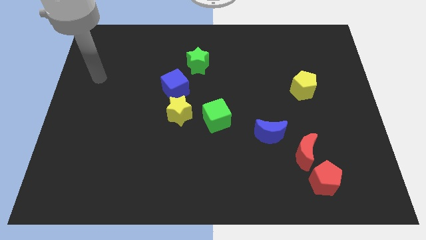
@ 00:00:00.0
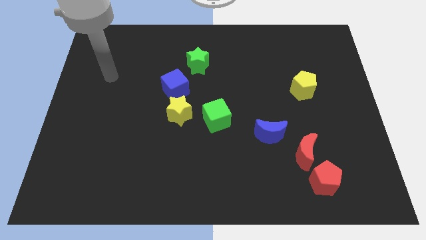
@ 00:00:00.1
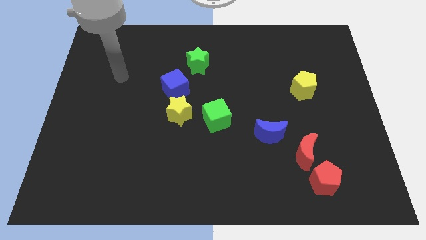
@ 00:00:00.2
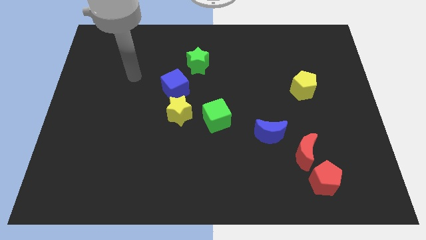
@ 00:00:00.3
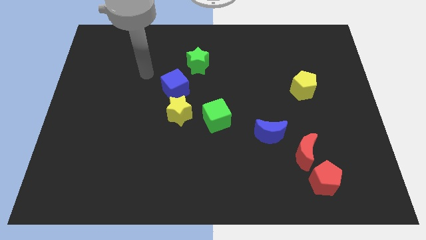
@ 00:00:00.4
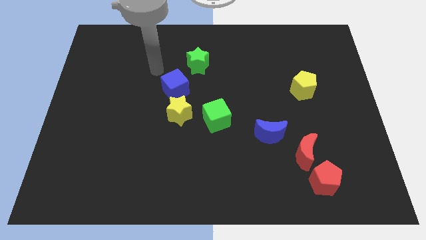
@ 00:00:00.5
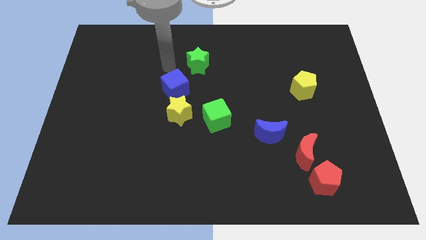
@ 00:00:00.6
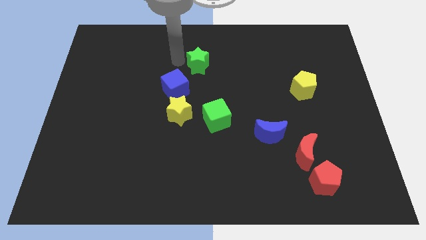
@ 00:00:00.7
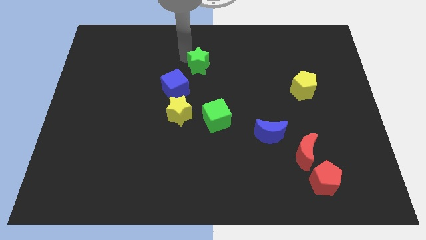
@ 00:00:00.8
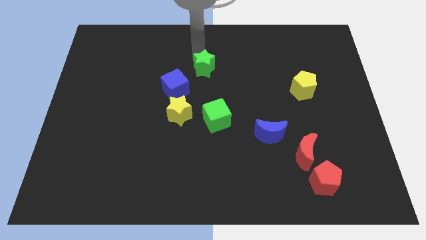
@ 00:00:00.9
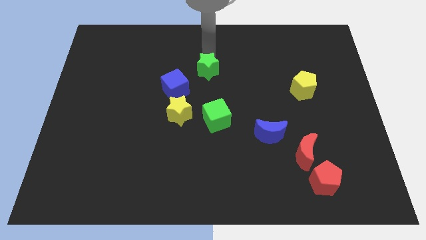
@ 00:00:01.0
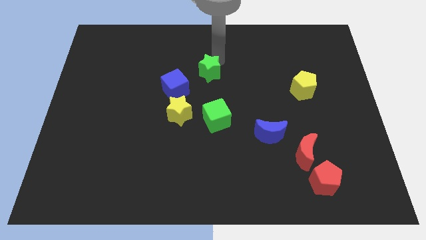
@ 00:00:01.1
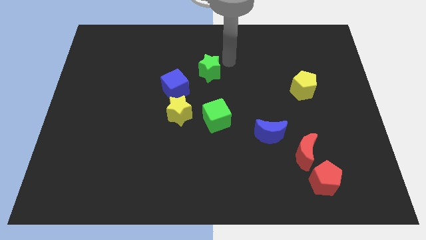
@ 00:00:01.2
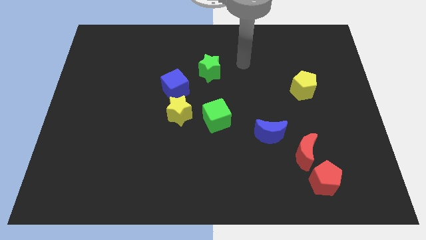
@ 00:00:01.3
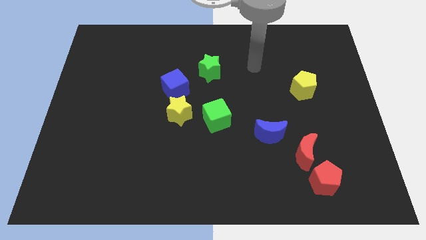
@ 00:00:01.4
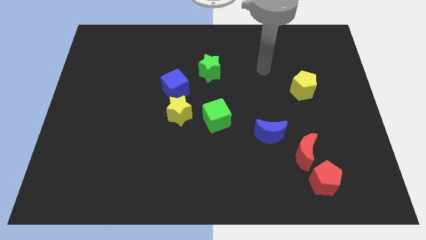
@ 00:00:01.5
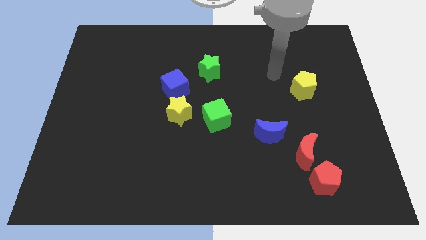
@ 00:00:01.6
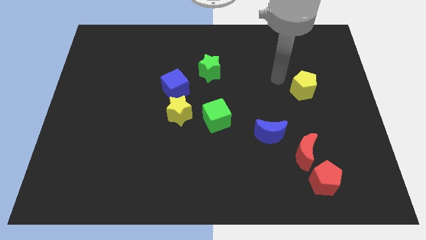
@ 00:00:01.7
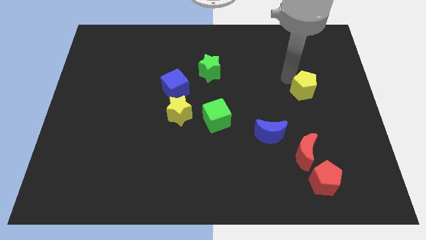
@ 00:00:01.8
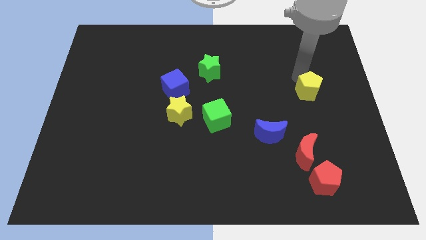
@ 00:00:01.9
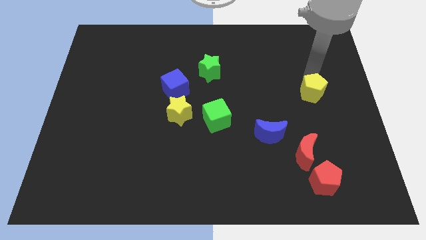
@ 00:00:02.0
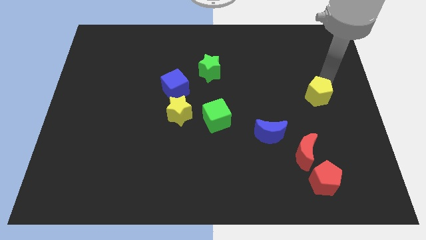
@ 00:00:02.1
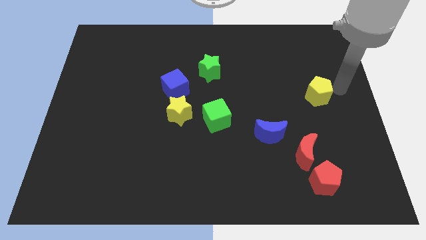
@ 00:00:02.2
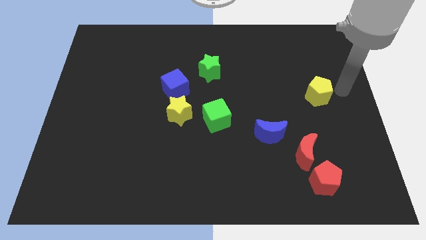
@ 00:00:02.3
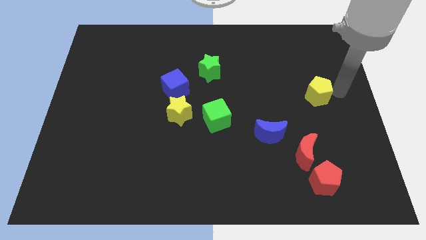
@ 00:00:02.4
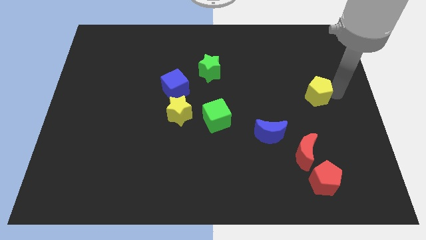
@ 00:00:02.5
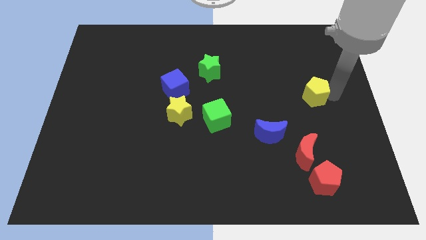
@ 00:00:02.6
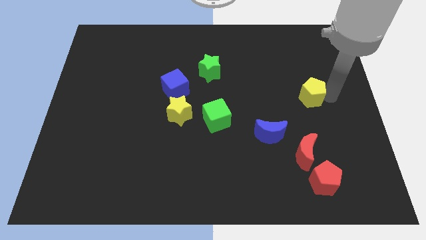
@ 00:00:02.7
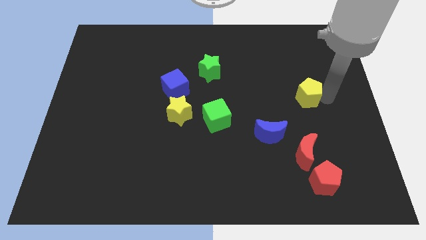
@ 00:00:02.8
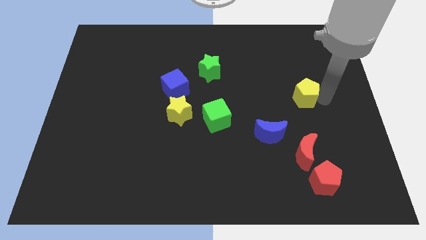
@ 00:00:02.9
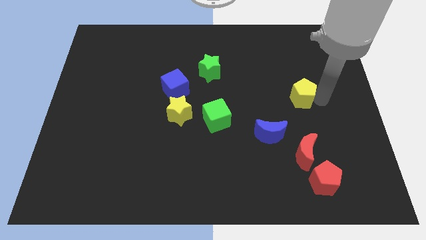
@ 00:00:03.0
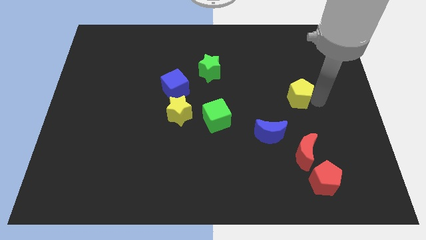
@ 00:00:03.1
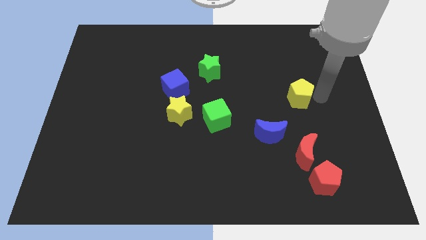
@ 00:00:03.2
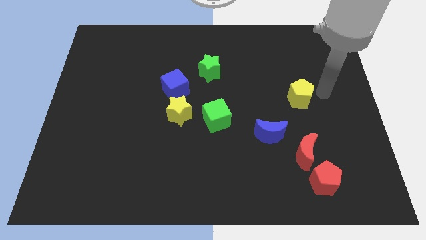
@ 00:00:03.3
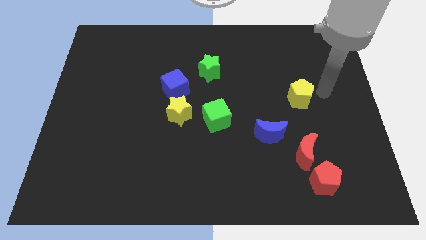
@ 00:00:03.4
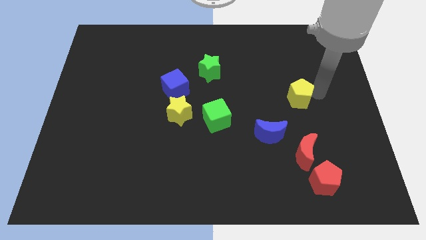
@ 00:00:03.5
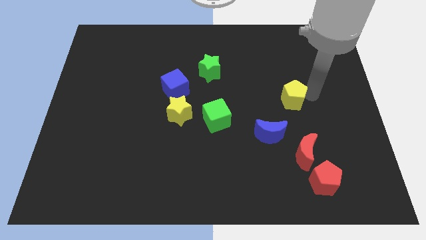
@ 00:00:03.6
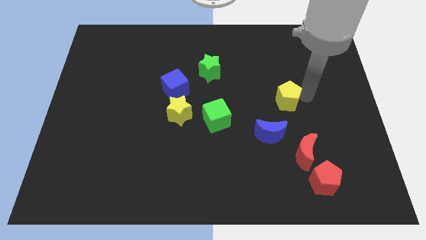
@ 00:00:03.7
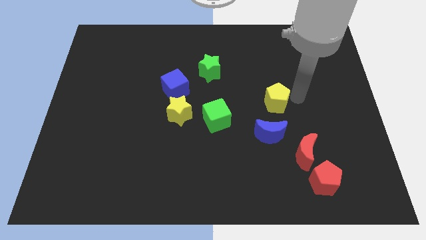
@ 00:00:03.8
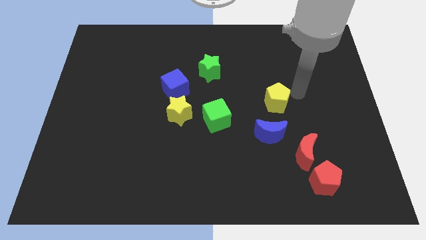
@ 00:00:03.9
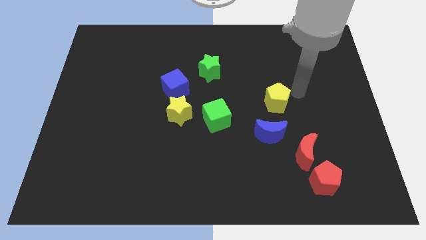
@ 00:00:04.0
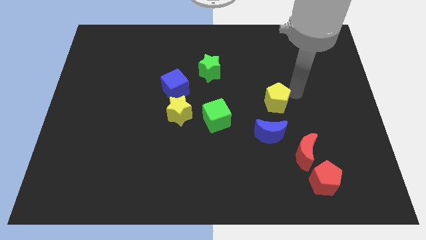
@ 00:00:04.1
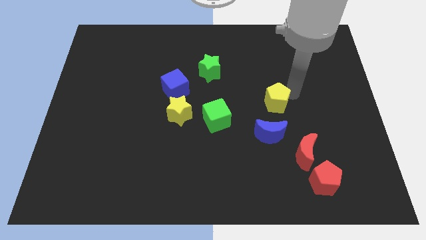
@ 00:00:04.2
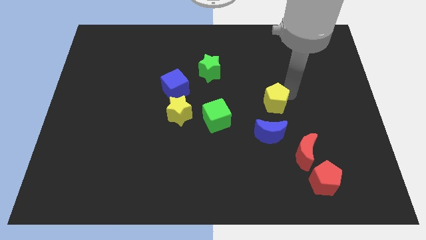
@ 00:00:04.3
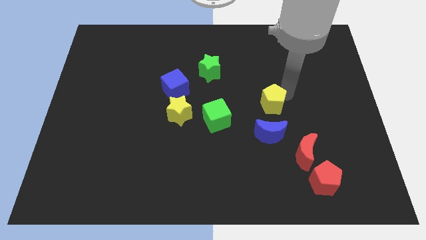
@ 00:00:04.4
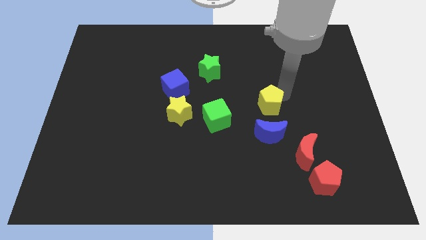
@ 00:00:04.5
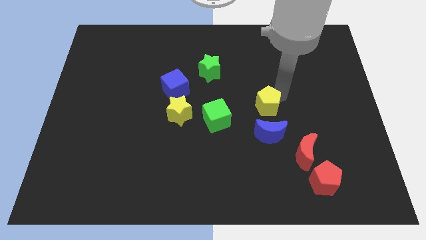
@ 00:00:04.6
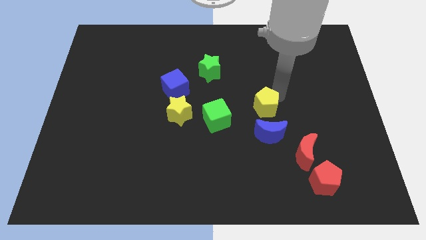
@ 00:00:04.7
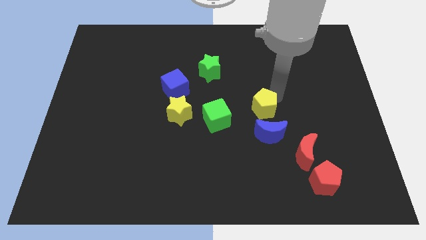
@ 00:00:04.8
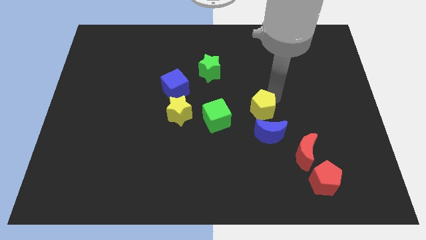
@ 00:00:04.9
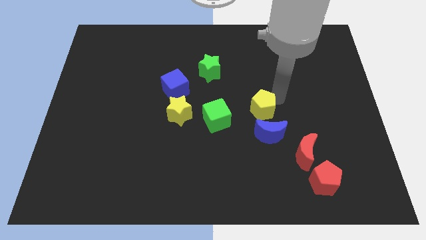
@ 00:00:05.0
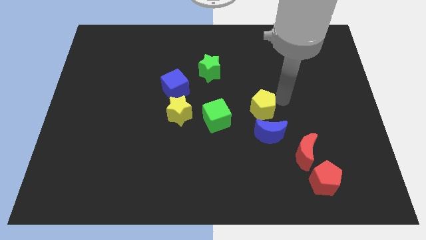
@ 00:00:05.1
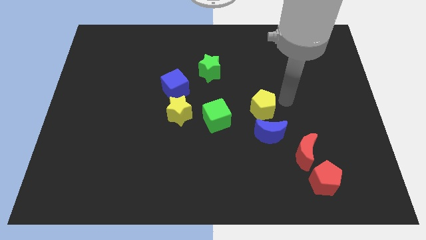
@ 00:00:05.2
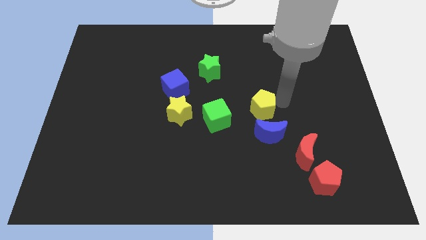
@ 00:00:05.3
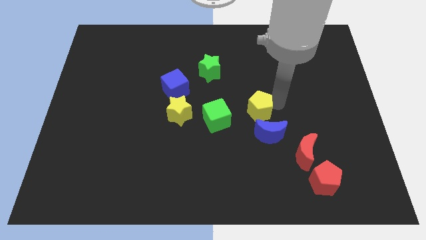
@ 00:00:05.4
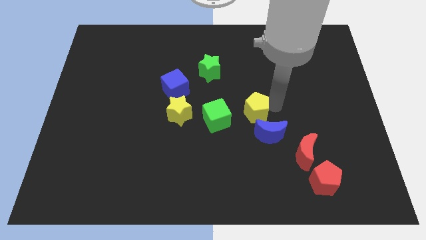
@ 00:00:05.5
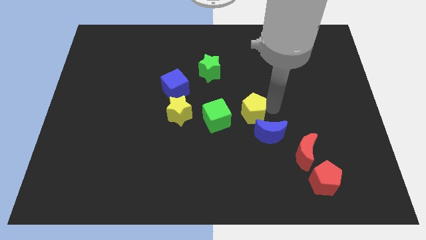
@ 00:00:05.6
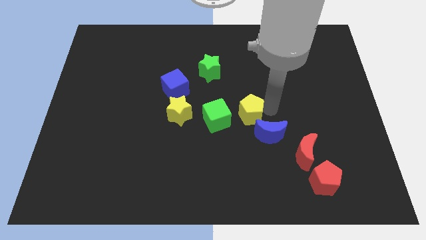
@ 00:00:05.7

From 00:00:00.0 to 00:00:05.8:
slide the yellow pentagon to the right side of the yellow star

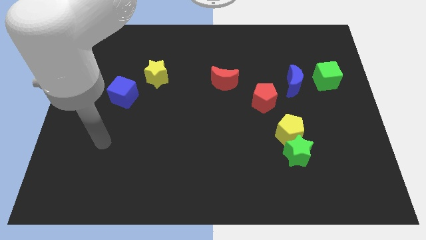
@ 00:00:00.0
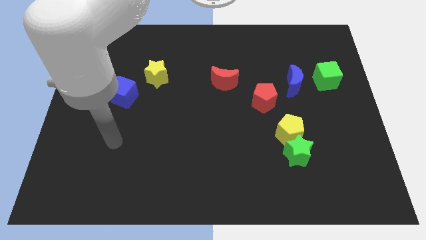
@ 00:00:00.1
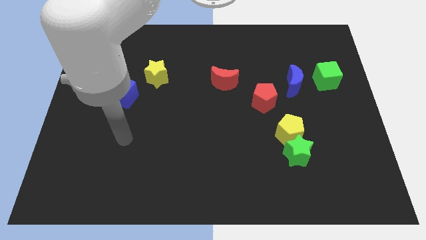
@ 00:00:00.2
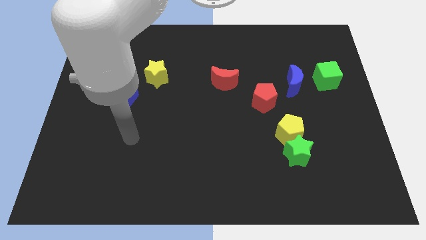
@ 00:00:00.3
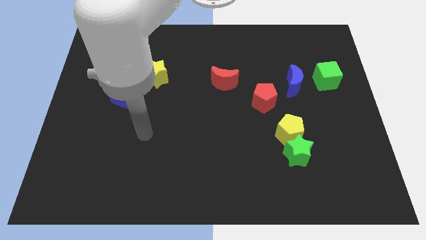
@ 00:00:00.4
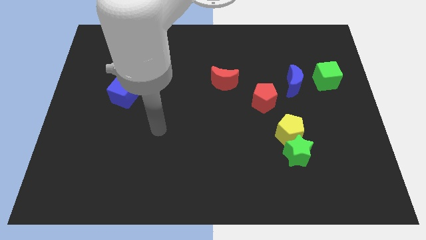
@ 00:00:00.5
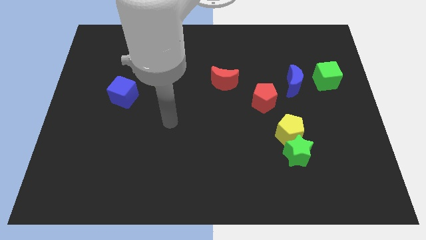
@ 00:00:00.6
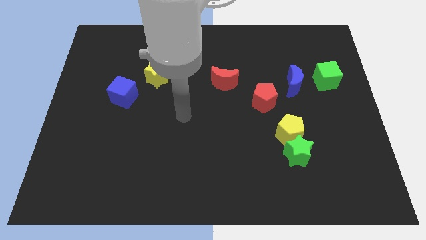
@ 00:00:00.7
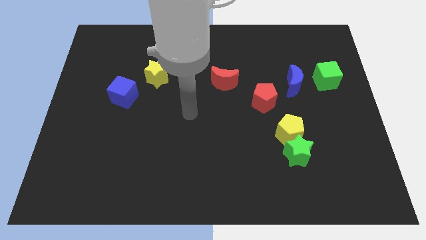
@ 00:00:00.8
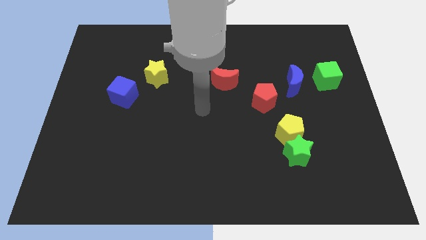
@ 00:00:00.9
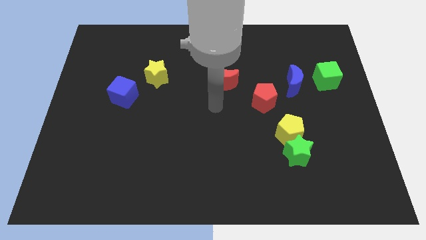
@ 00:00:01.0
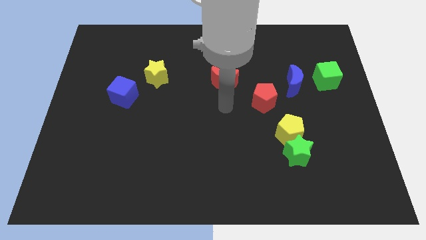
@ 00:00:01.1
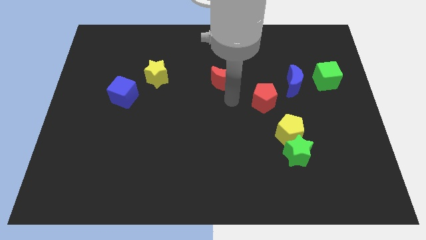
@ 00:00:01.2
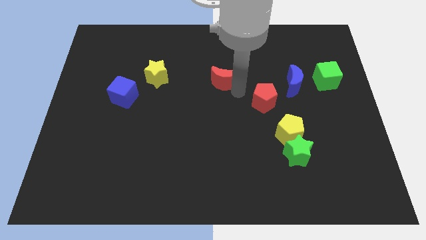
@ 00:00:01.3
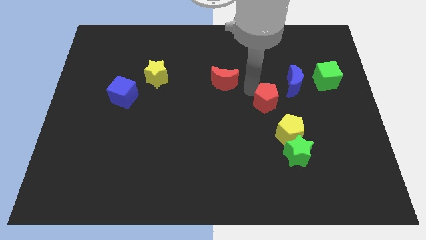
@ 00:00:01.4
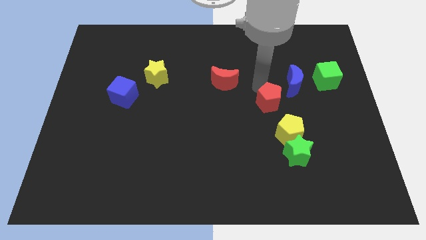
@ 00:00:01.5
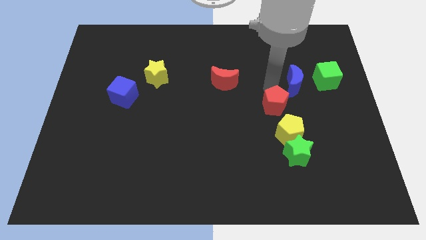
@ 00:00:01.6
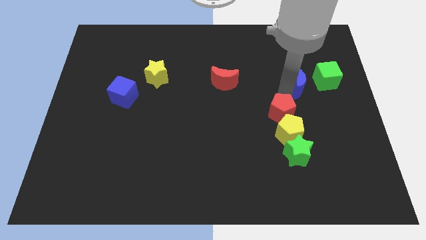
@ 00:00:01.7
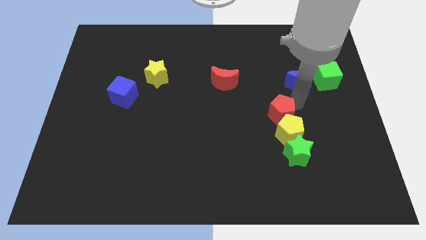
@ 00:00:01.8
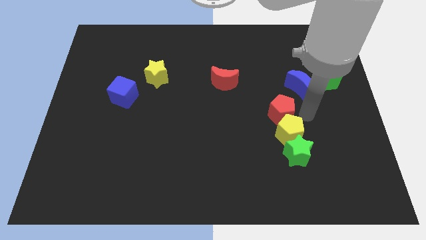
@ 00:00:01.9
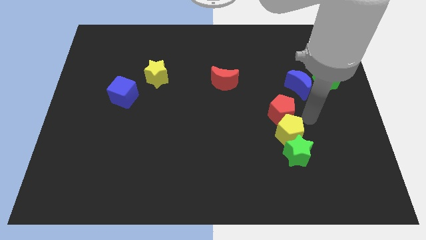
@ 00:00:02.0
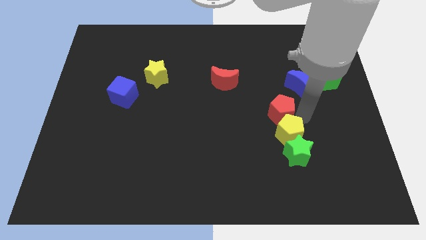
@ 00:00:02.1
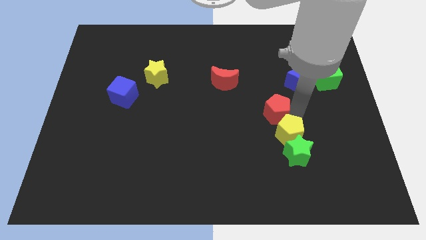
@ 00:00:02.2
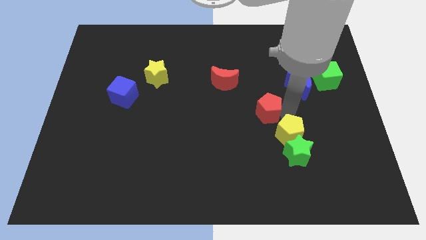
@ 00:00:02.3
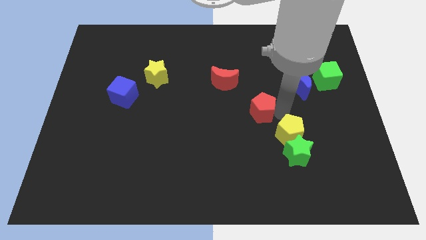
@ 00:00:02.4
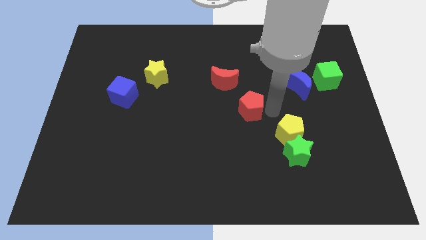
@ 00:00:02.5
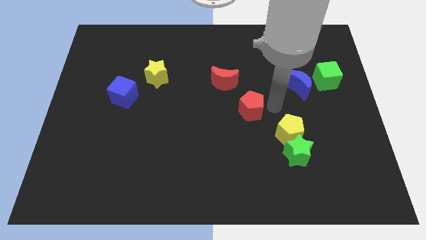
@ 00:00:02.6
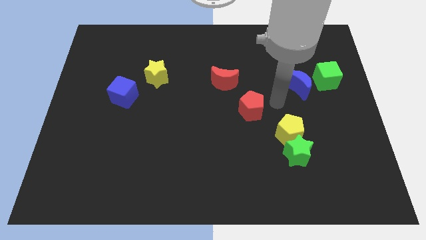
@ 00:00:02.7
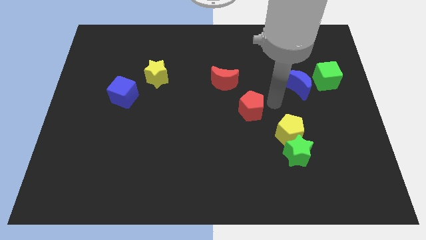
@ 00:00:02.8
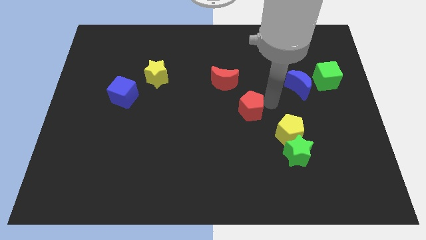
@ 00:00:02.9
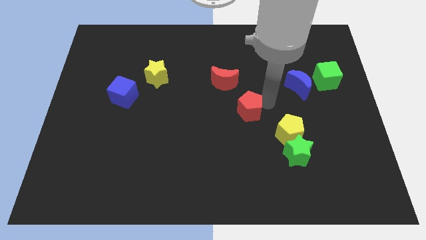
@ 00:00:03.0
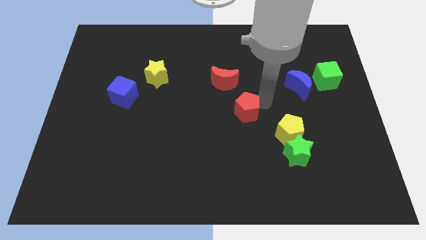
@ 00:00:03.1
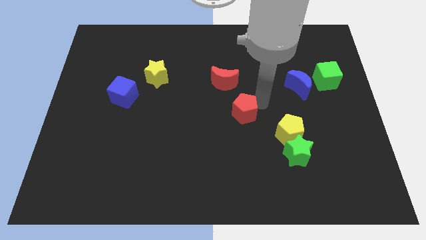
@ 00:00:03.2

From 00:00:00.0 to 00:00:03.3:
put the red pentagon to the bottom side of the red moon
